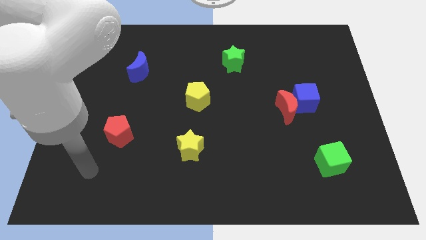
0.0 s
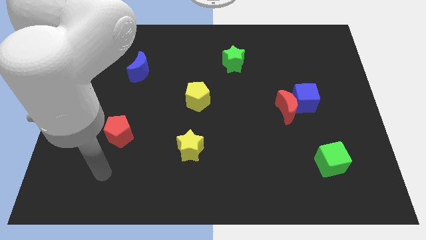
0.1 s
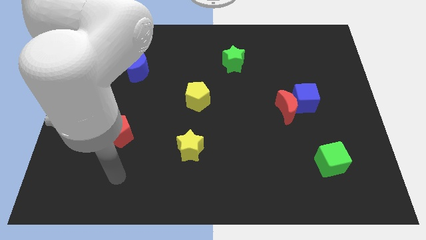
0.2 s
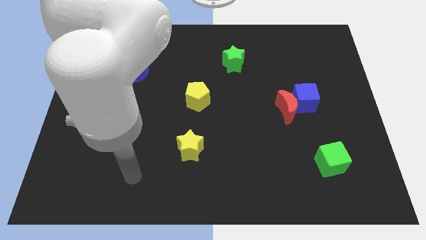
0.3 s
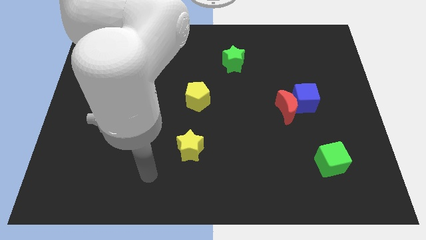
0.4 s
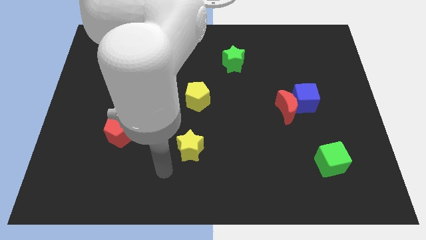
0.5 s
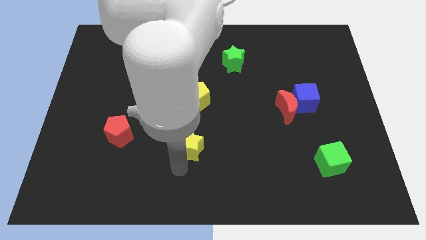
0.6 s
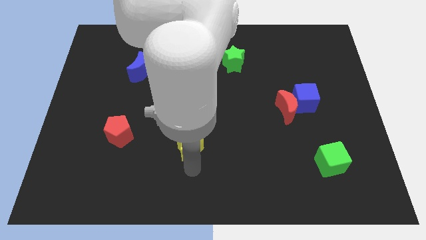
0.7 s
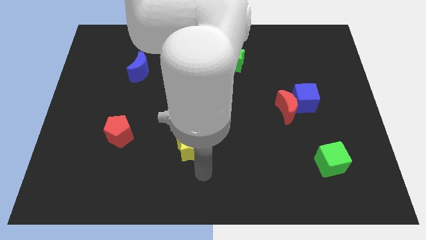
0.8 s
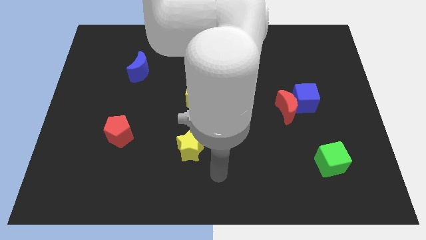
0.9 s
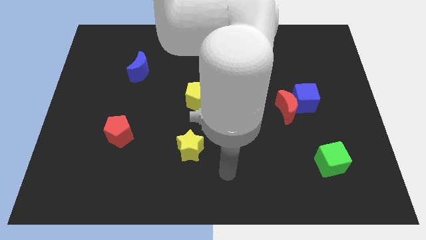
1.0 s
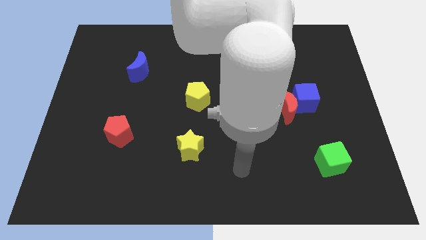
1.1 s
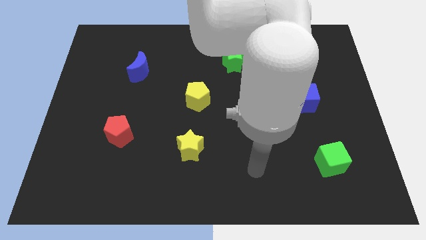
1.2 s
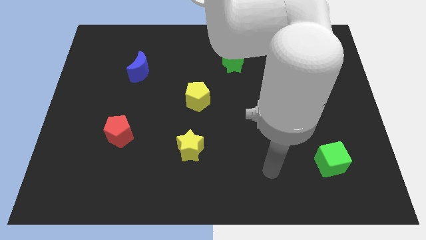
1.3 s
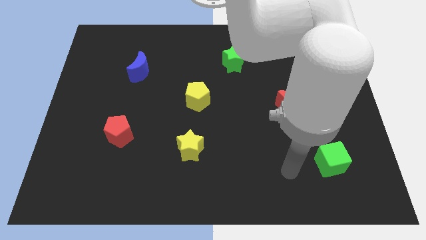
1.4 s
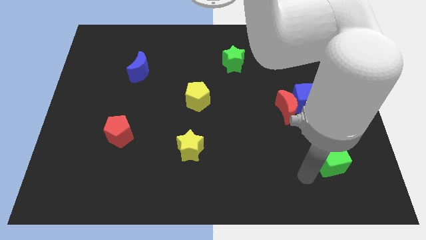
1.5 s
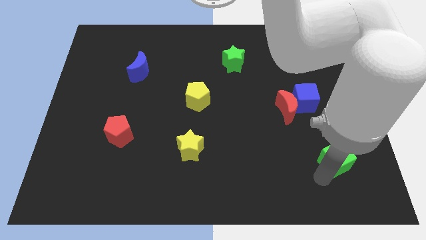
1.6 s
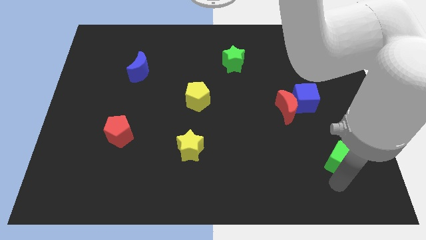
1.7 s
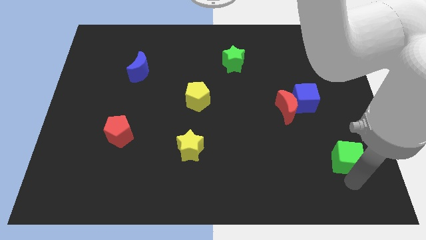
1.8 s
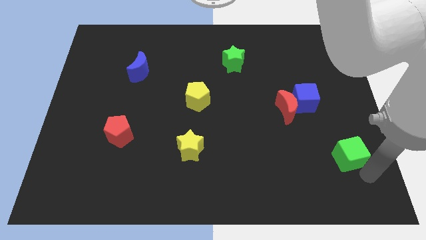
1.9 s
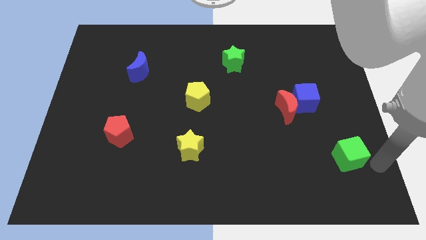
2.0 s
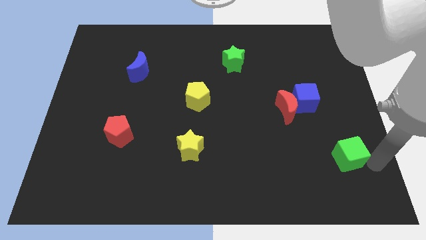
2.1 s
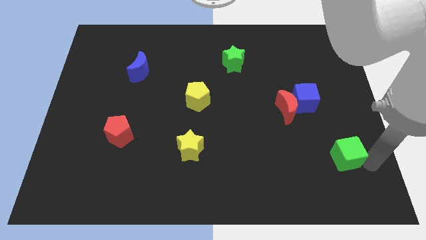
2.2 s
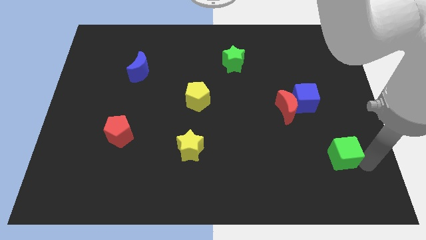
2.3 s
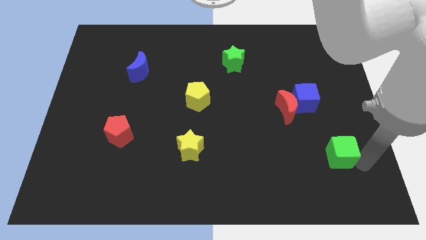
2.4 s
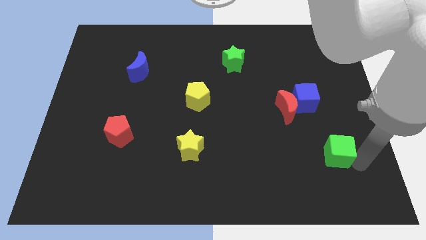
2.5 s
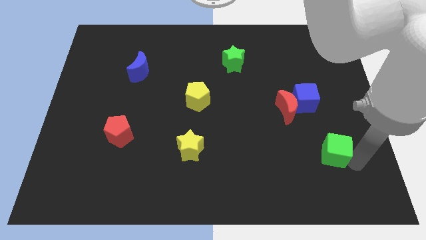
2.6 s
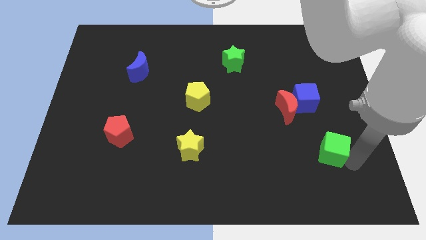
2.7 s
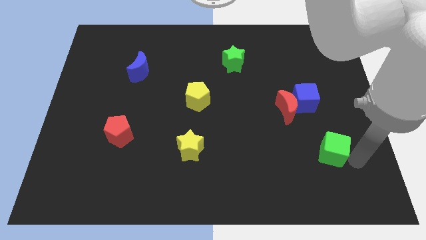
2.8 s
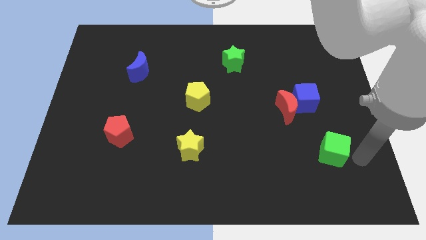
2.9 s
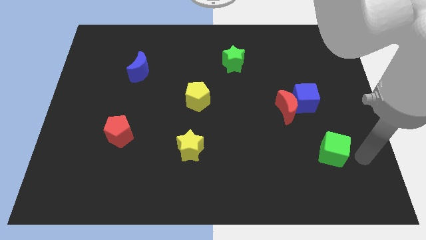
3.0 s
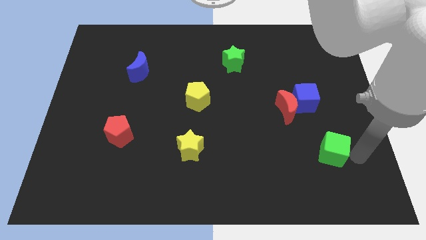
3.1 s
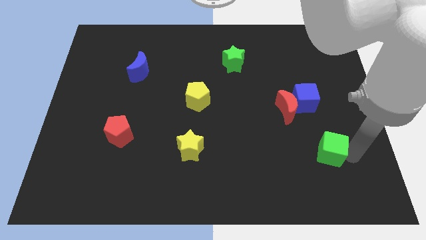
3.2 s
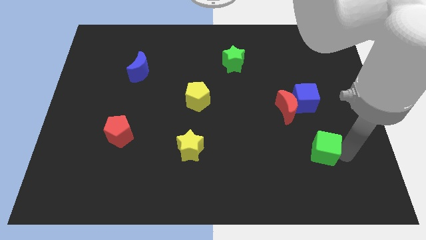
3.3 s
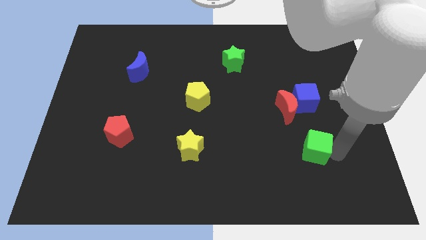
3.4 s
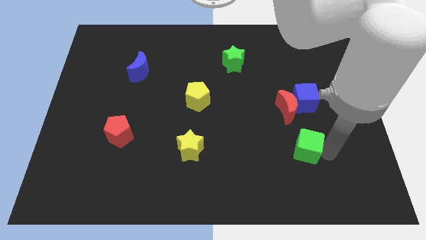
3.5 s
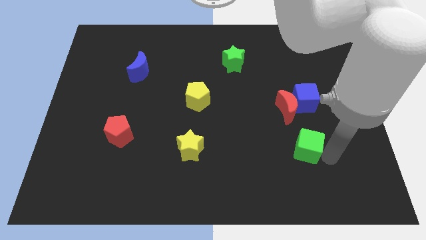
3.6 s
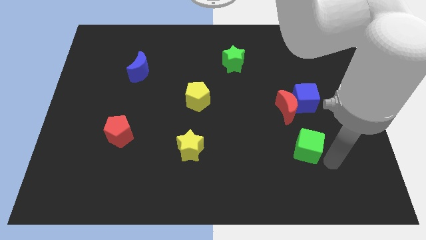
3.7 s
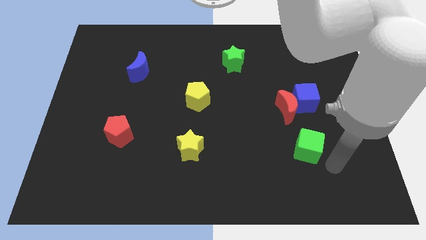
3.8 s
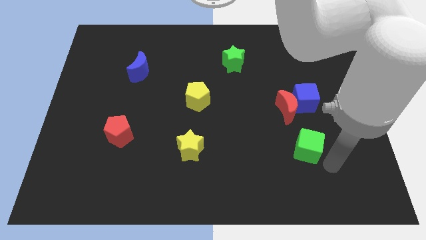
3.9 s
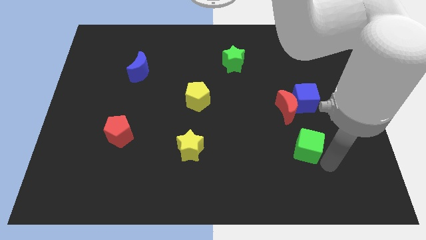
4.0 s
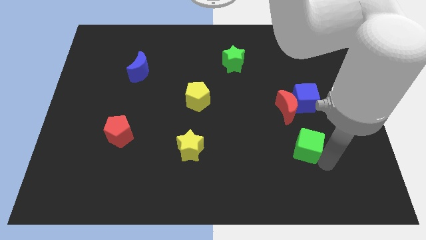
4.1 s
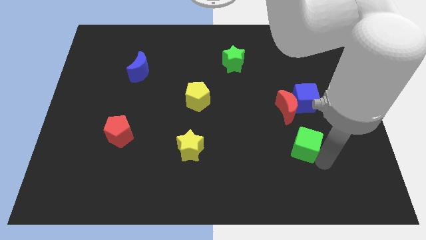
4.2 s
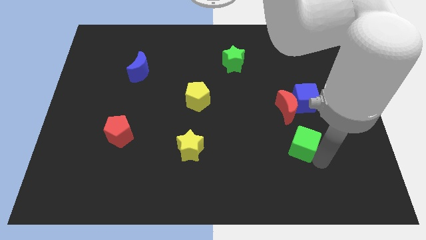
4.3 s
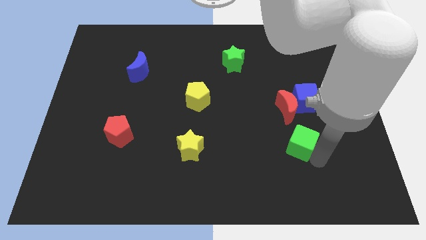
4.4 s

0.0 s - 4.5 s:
push the green cube up and left diagonally a little

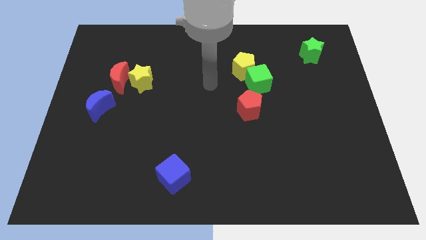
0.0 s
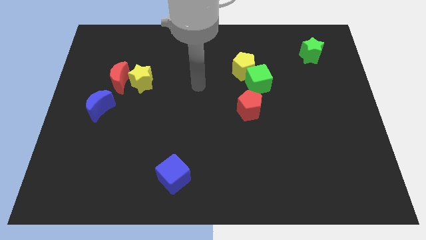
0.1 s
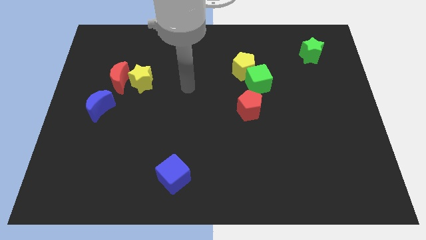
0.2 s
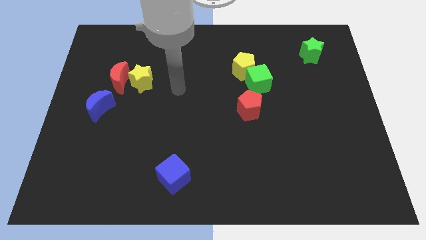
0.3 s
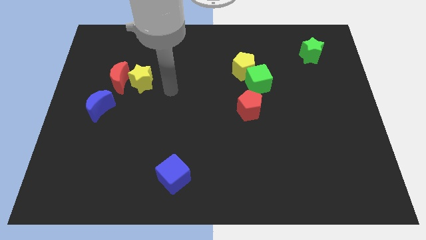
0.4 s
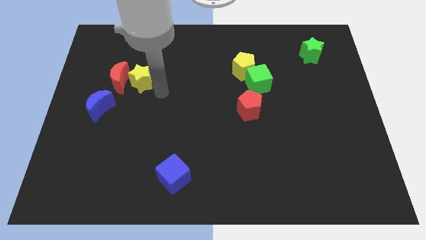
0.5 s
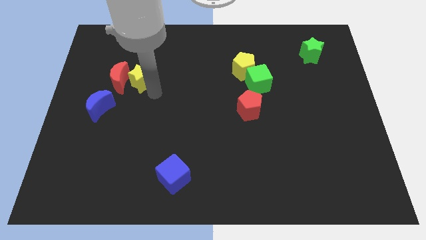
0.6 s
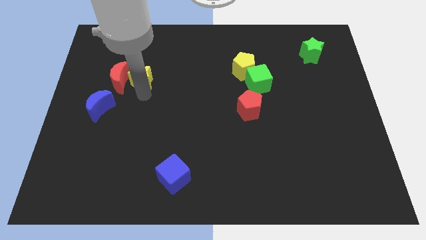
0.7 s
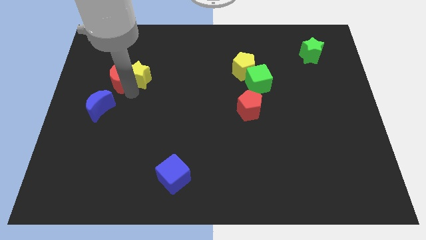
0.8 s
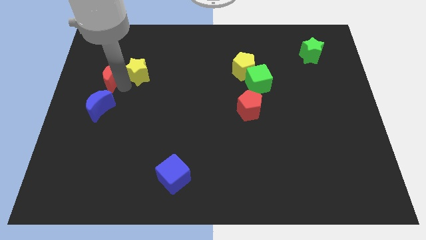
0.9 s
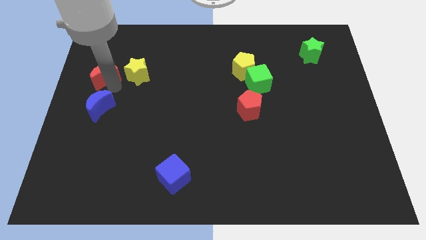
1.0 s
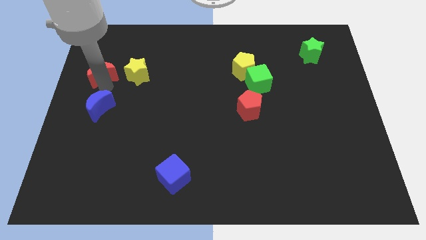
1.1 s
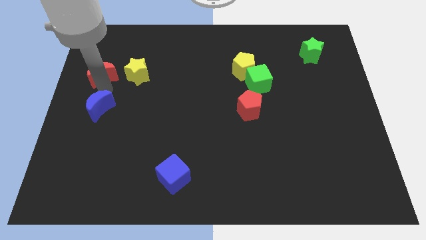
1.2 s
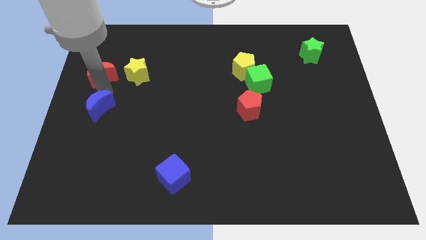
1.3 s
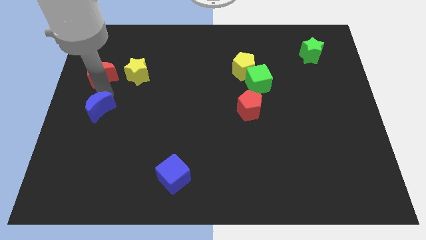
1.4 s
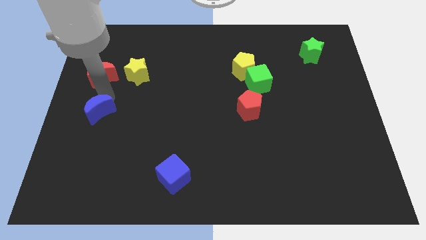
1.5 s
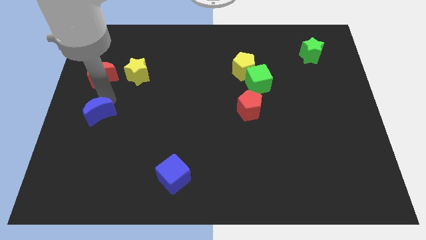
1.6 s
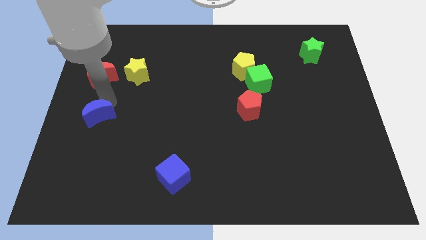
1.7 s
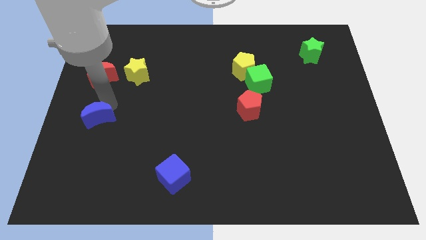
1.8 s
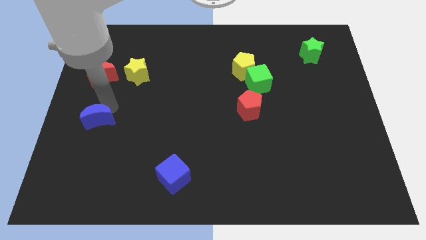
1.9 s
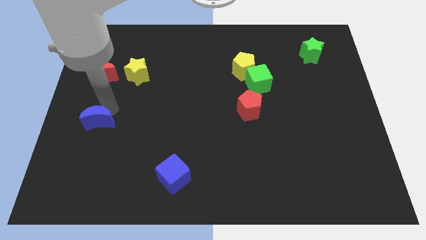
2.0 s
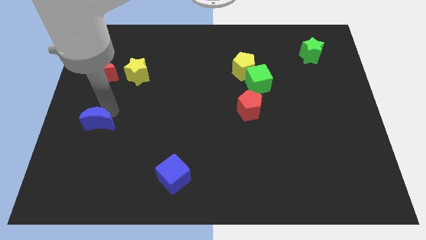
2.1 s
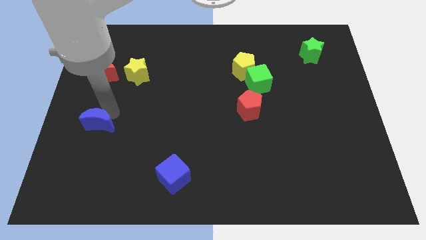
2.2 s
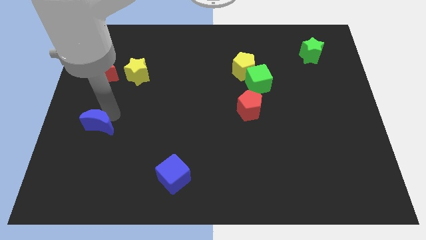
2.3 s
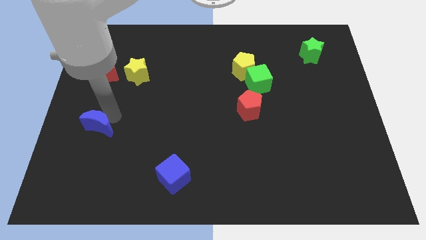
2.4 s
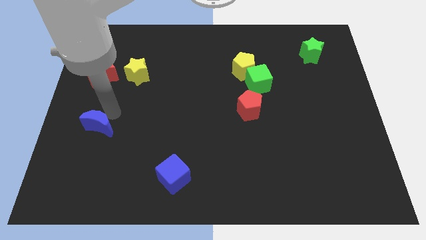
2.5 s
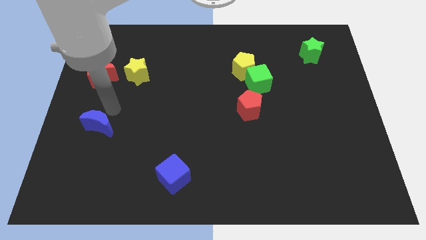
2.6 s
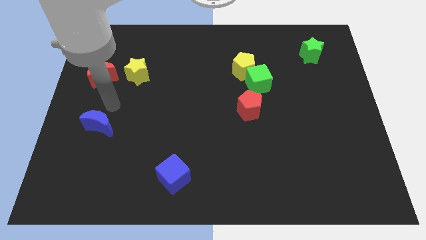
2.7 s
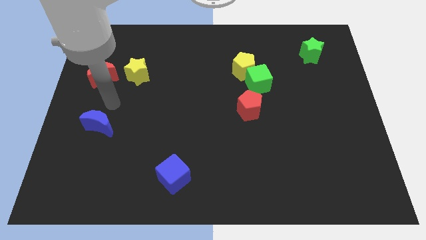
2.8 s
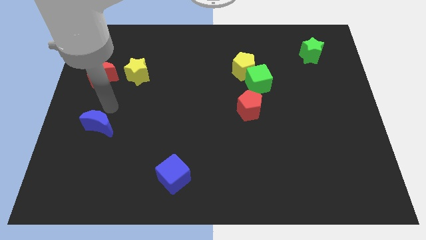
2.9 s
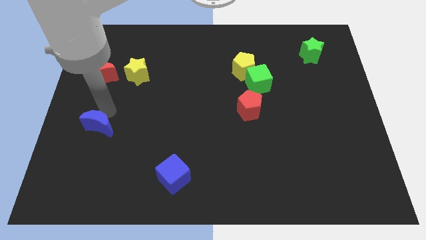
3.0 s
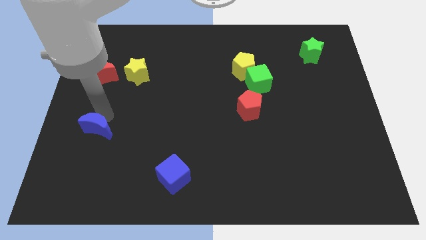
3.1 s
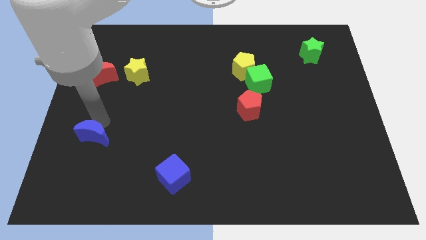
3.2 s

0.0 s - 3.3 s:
slide the blue moon slightly down

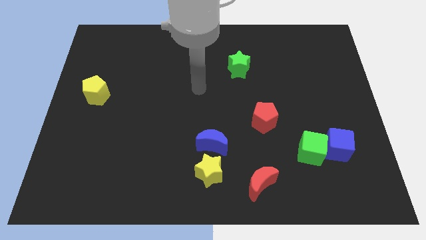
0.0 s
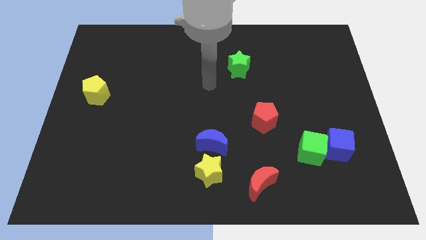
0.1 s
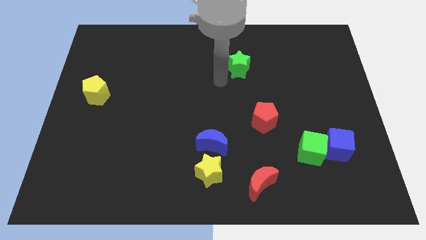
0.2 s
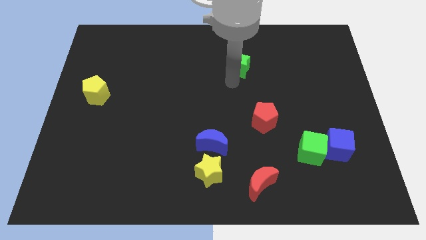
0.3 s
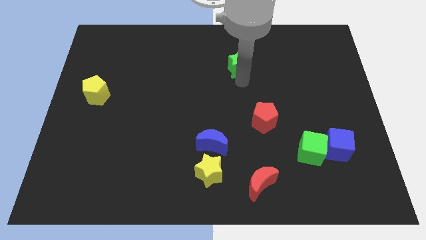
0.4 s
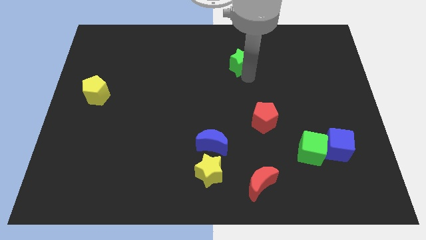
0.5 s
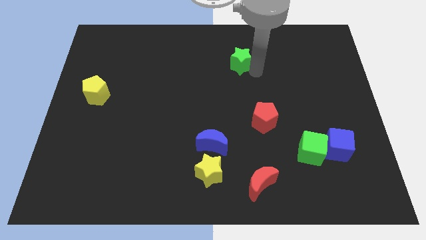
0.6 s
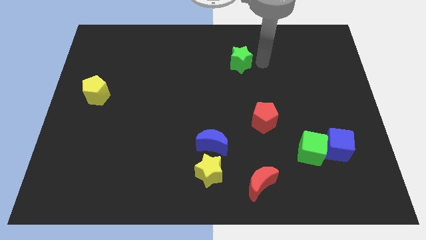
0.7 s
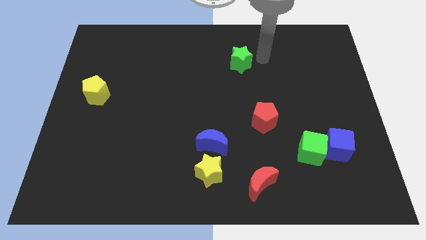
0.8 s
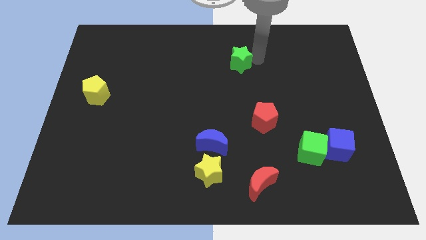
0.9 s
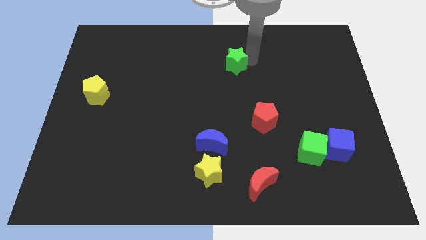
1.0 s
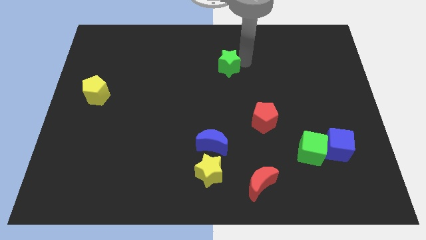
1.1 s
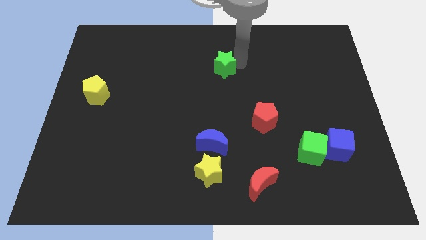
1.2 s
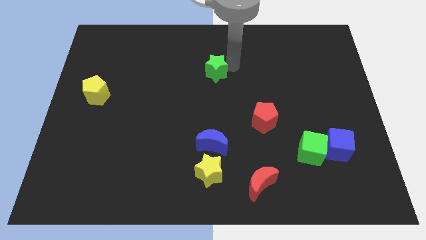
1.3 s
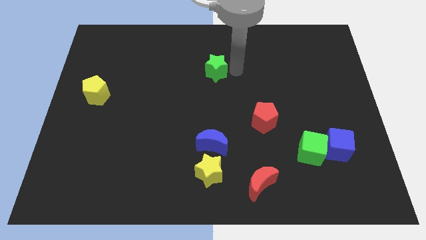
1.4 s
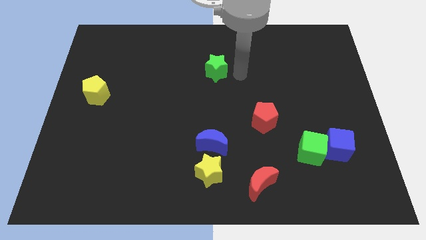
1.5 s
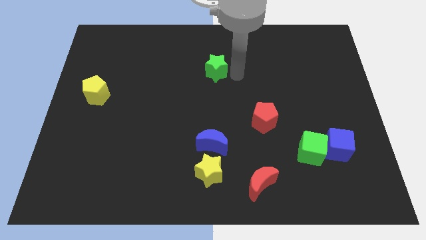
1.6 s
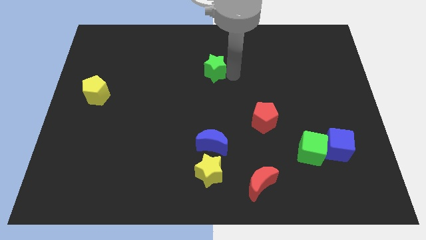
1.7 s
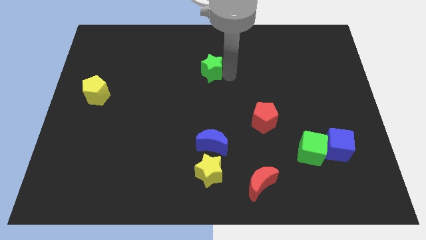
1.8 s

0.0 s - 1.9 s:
slide the green star left a little bit
